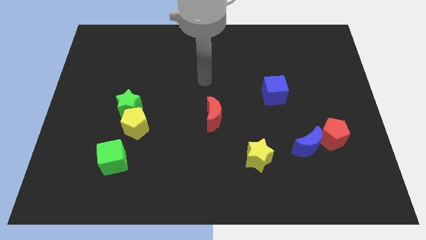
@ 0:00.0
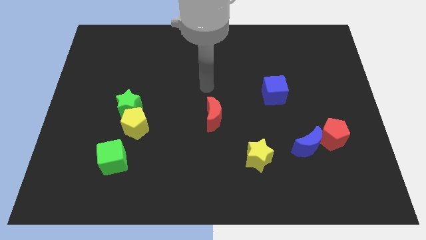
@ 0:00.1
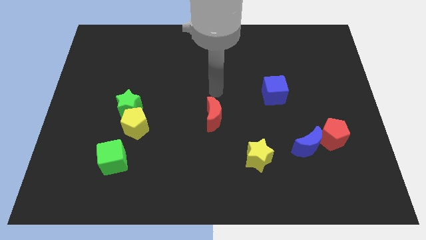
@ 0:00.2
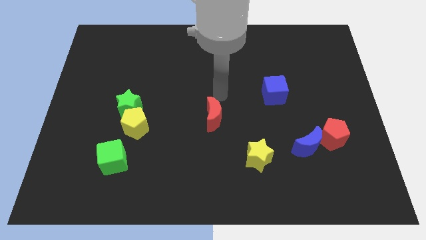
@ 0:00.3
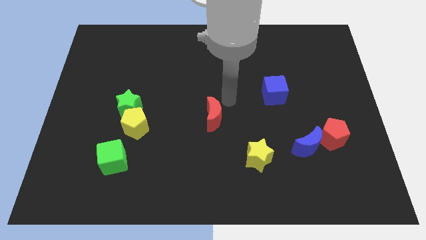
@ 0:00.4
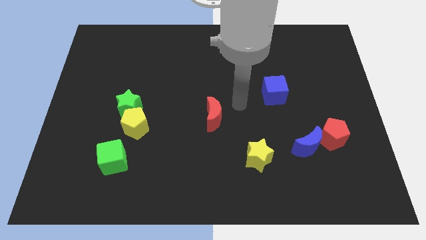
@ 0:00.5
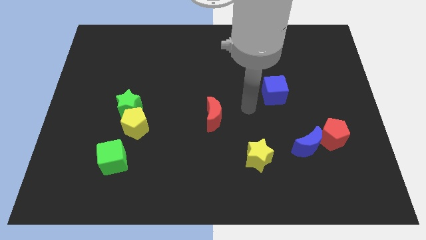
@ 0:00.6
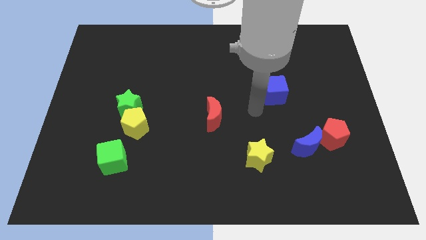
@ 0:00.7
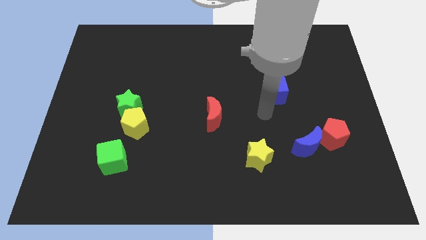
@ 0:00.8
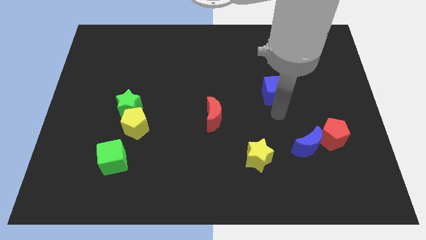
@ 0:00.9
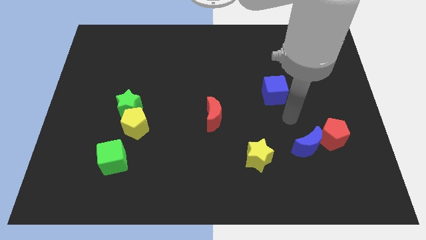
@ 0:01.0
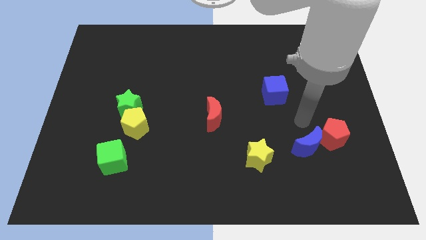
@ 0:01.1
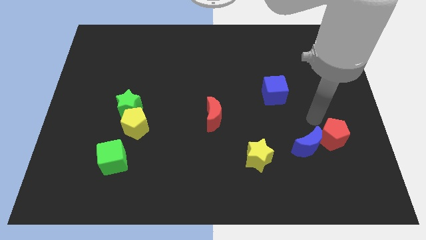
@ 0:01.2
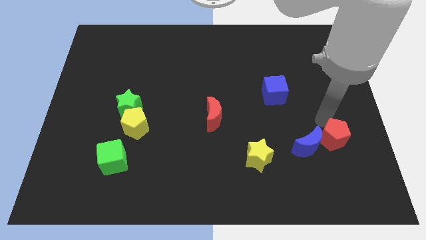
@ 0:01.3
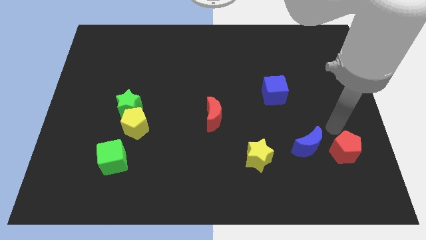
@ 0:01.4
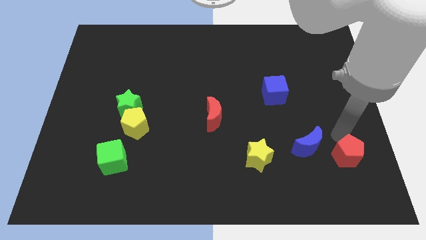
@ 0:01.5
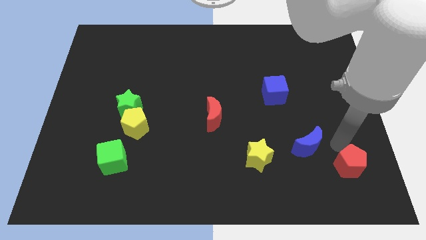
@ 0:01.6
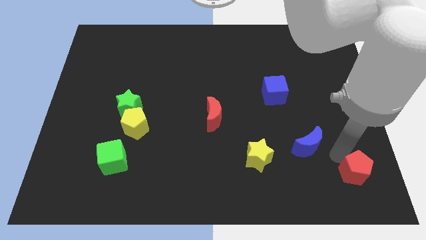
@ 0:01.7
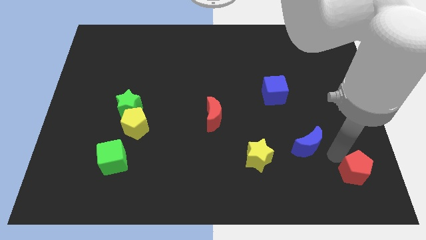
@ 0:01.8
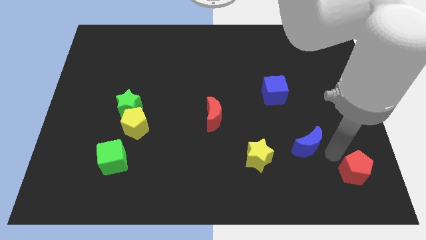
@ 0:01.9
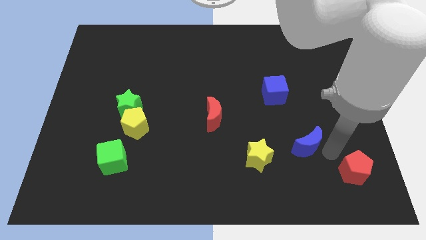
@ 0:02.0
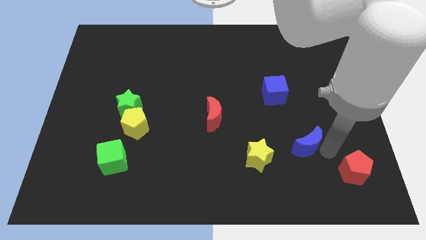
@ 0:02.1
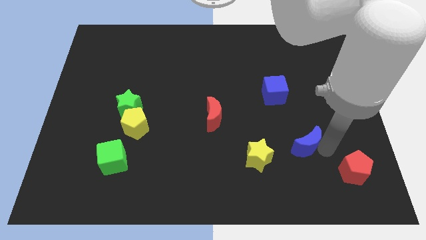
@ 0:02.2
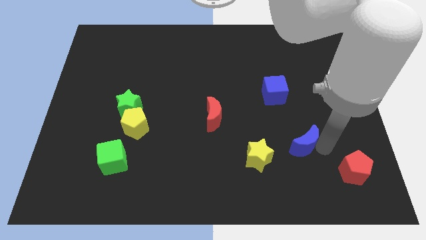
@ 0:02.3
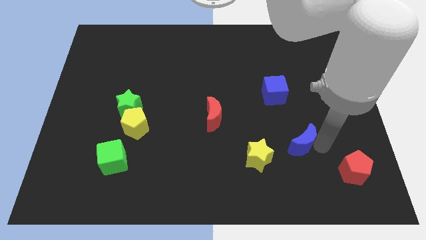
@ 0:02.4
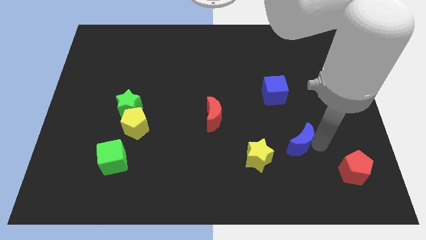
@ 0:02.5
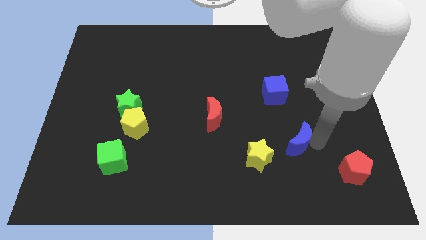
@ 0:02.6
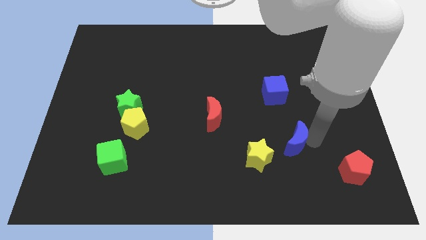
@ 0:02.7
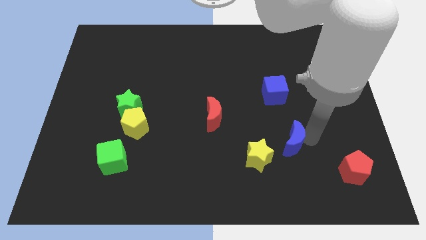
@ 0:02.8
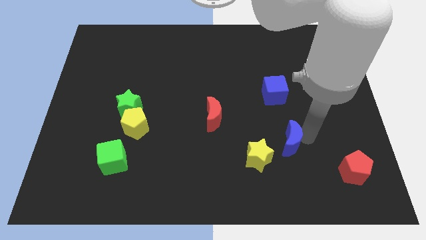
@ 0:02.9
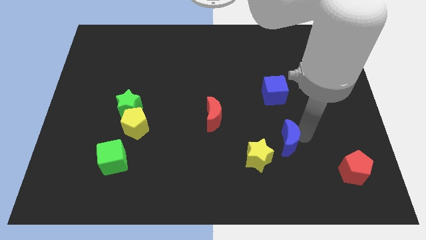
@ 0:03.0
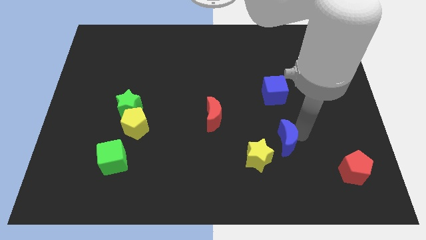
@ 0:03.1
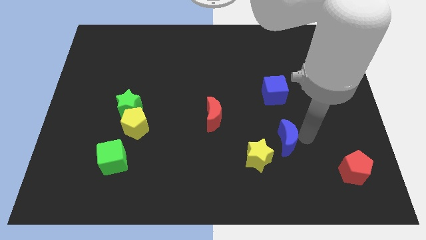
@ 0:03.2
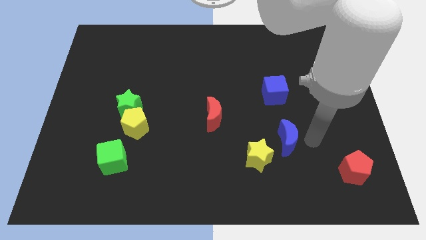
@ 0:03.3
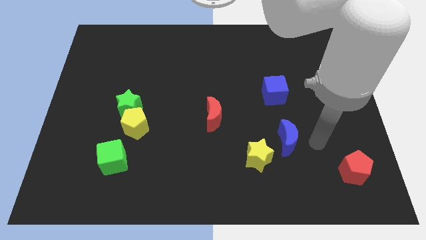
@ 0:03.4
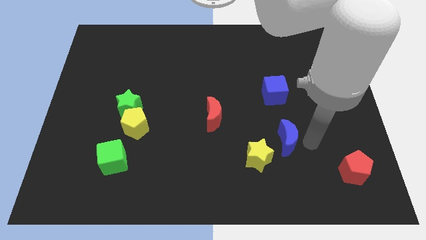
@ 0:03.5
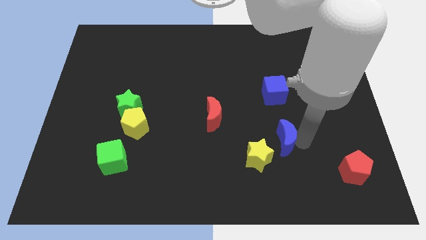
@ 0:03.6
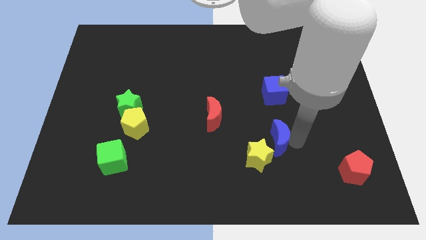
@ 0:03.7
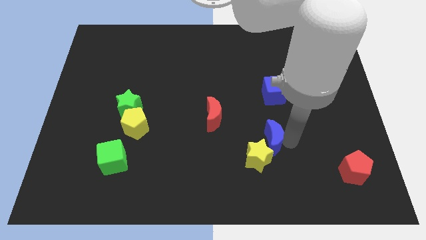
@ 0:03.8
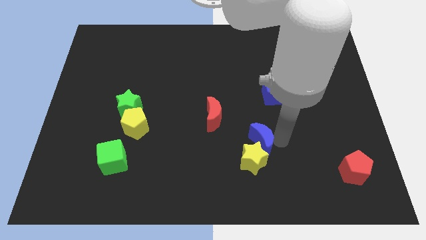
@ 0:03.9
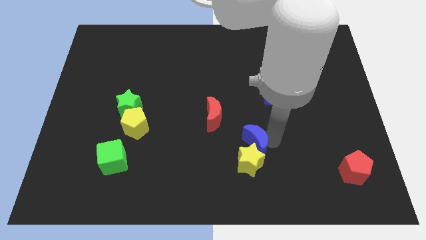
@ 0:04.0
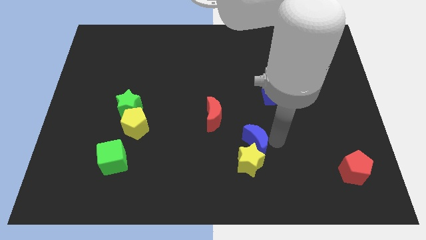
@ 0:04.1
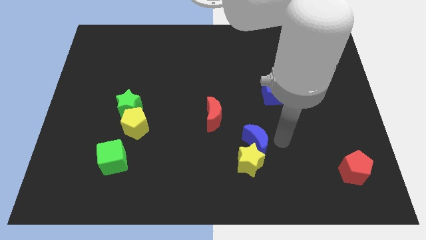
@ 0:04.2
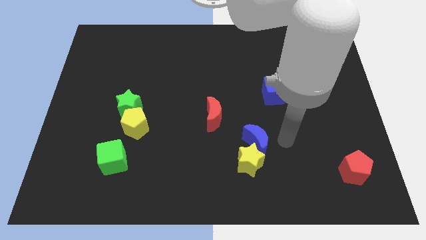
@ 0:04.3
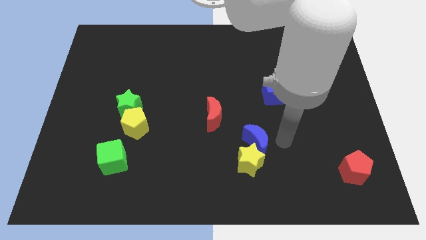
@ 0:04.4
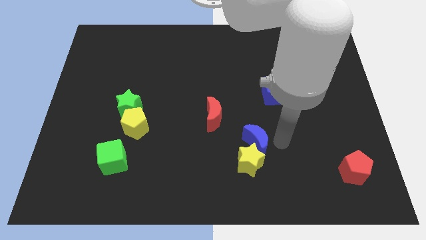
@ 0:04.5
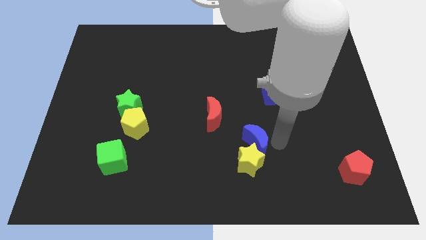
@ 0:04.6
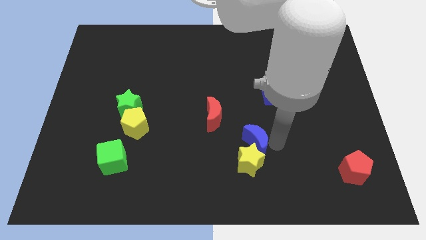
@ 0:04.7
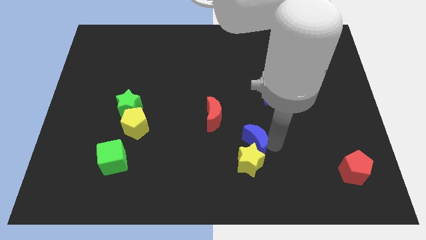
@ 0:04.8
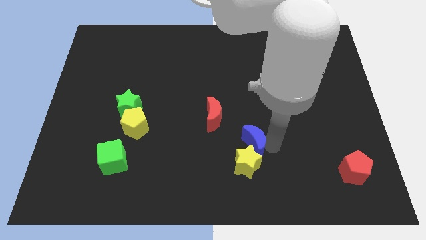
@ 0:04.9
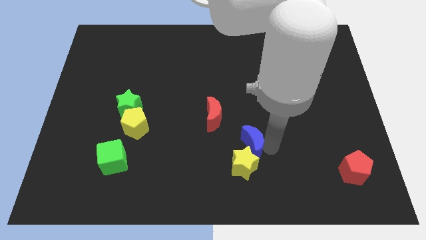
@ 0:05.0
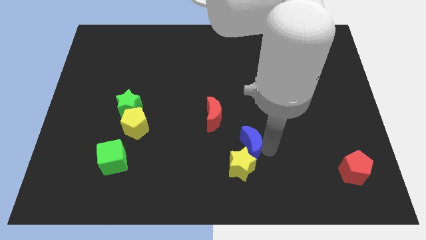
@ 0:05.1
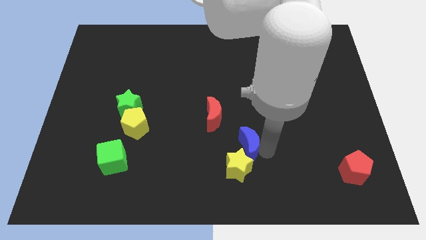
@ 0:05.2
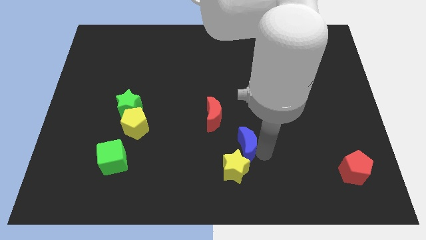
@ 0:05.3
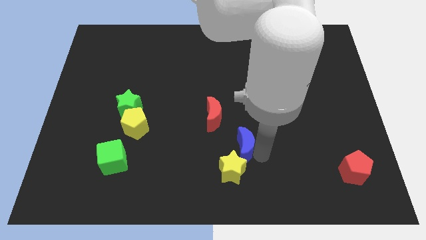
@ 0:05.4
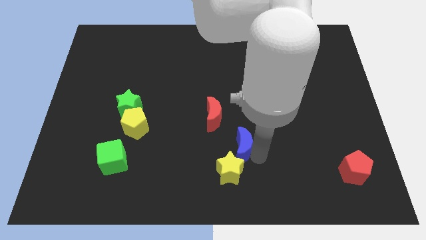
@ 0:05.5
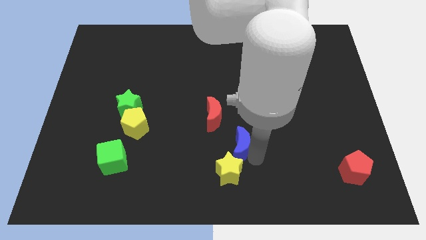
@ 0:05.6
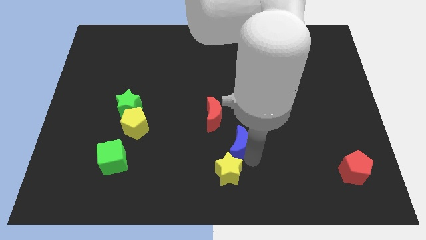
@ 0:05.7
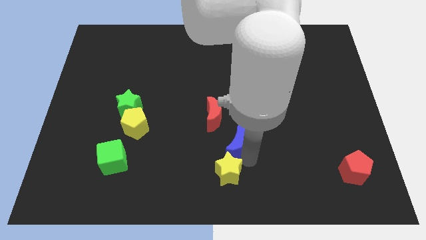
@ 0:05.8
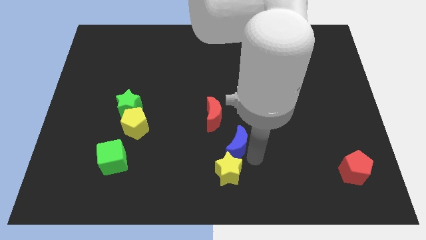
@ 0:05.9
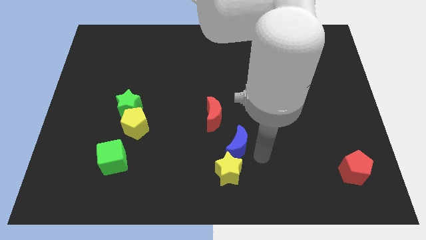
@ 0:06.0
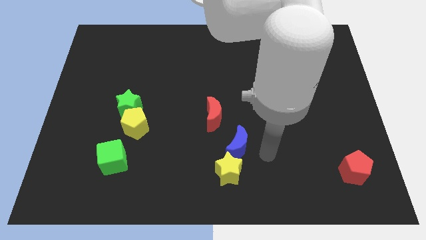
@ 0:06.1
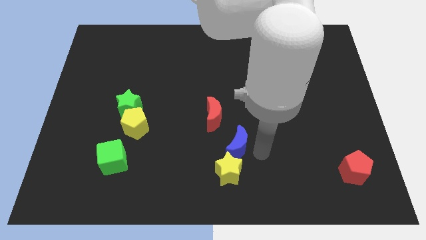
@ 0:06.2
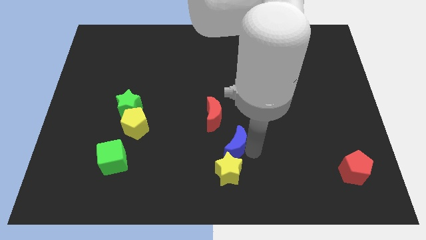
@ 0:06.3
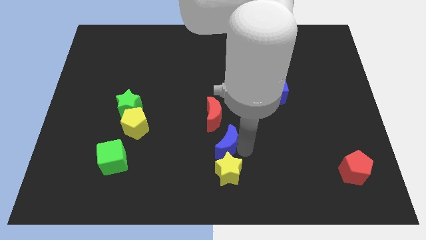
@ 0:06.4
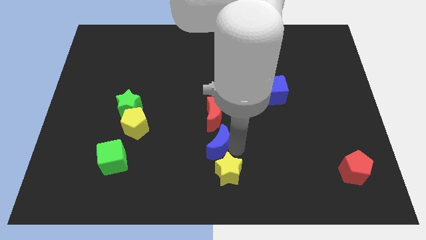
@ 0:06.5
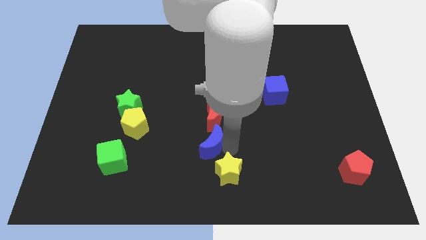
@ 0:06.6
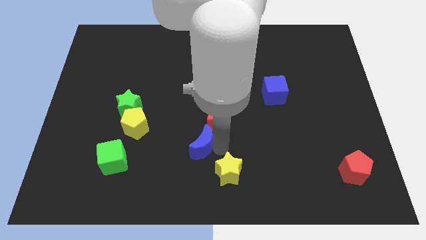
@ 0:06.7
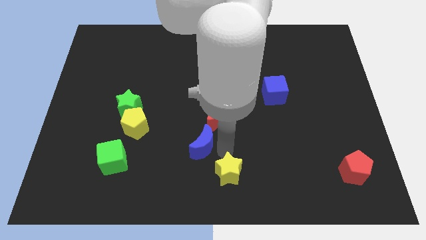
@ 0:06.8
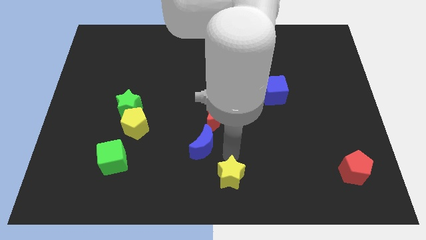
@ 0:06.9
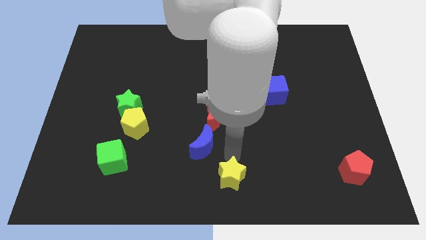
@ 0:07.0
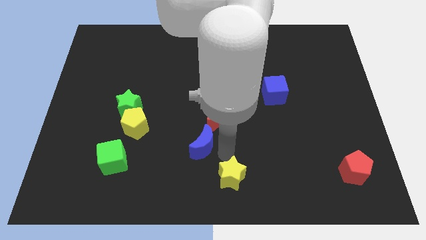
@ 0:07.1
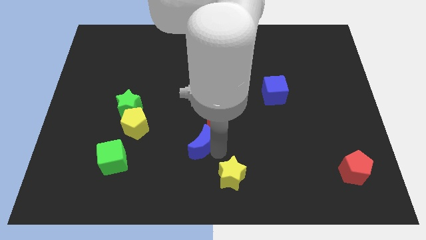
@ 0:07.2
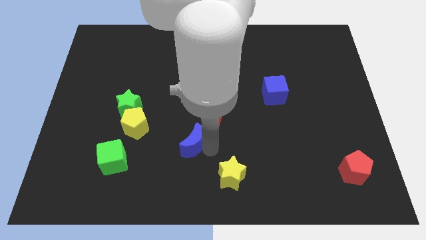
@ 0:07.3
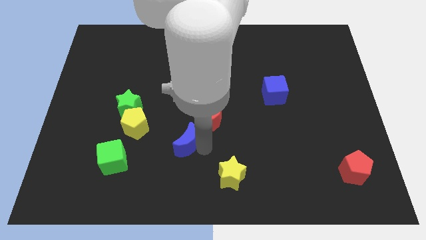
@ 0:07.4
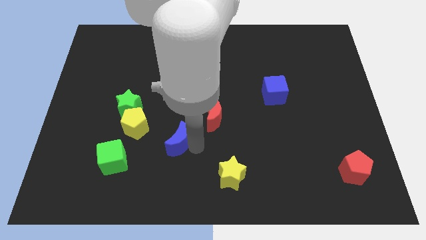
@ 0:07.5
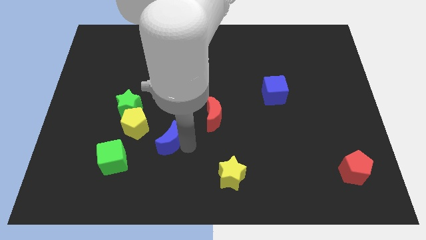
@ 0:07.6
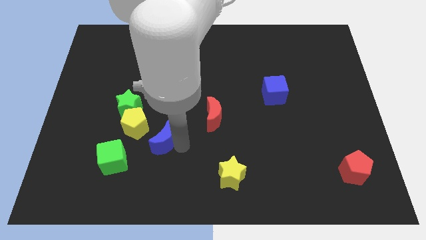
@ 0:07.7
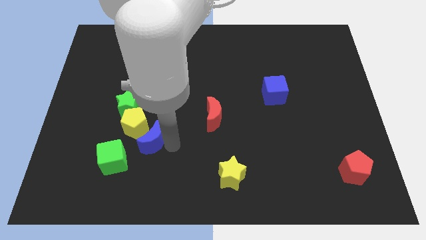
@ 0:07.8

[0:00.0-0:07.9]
push the blue moon next to the yellow pentagon

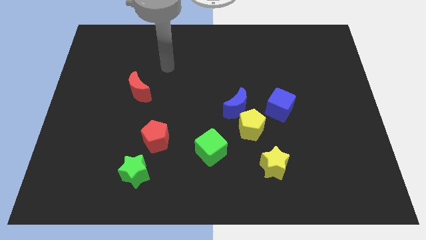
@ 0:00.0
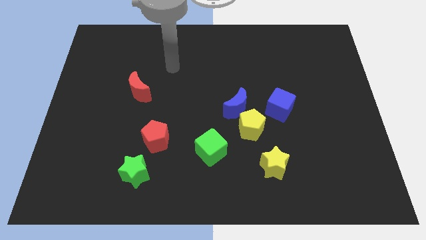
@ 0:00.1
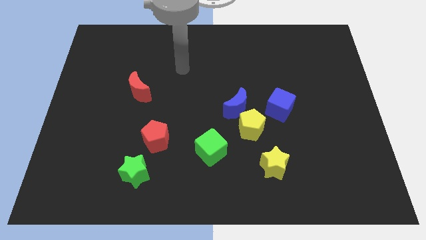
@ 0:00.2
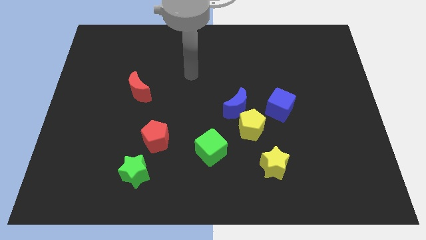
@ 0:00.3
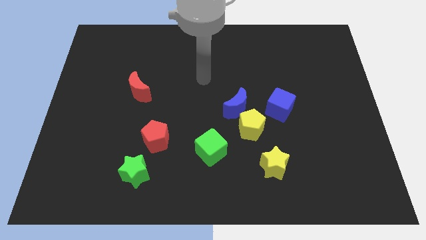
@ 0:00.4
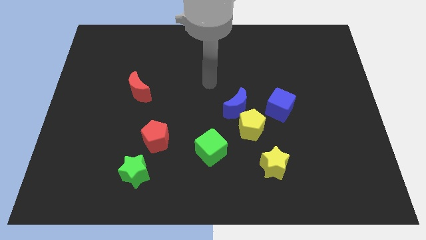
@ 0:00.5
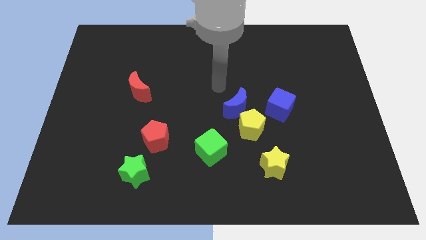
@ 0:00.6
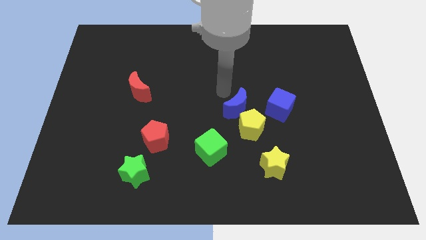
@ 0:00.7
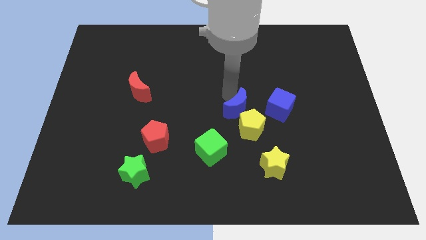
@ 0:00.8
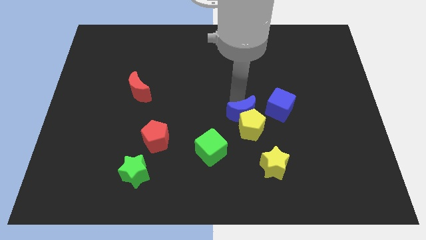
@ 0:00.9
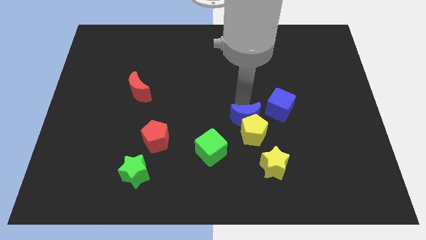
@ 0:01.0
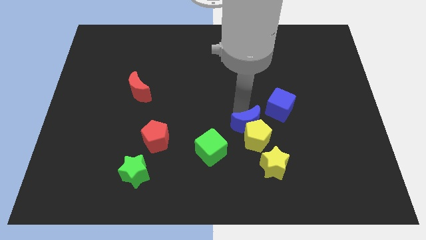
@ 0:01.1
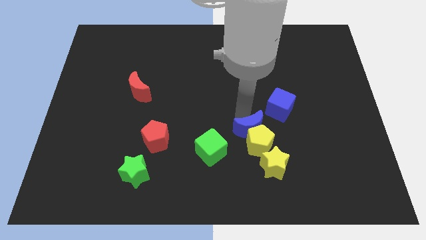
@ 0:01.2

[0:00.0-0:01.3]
move the yellow pentagon close to the yellow star
